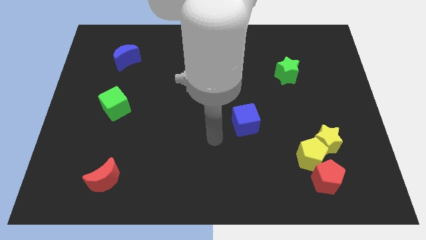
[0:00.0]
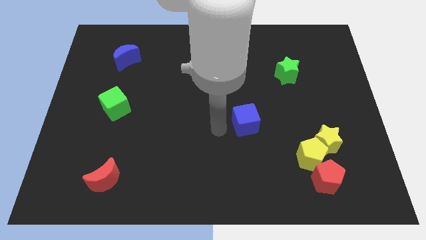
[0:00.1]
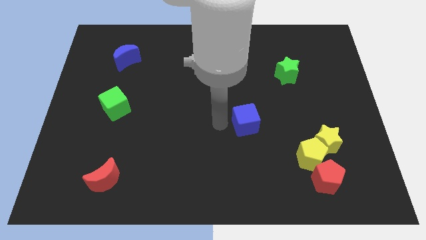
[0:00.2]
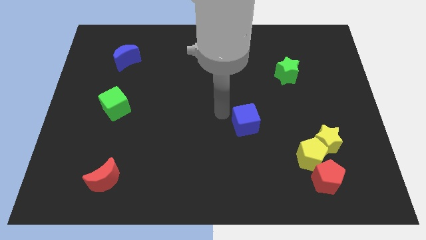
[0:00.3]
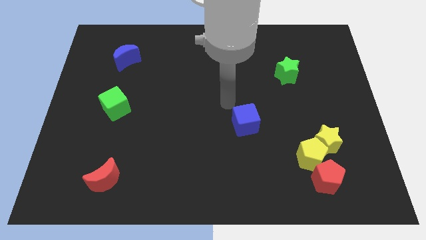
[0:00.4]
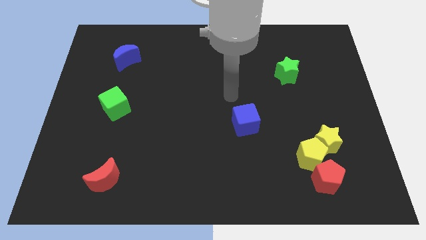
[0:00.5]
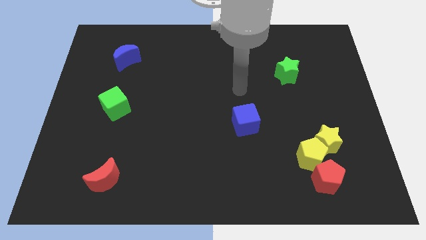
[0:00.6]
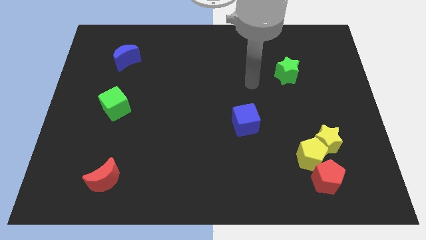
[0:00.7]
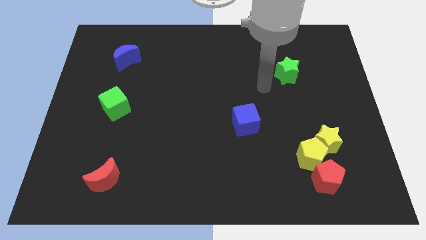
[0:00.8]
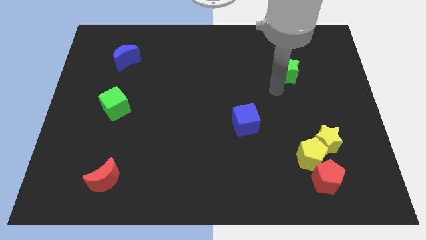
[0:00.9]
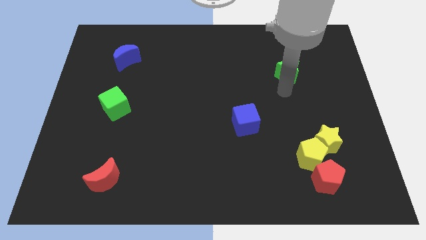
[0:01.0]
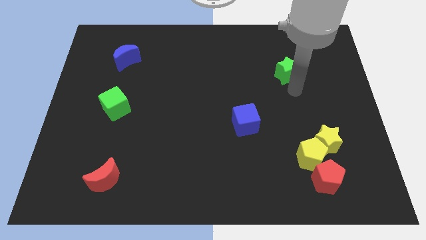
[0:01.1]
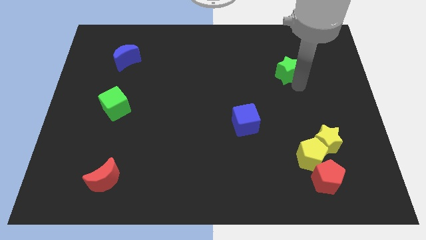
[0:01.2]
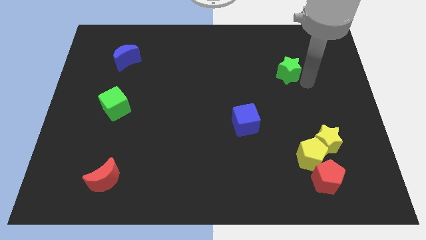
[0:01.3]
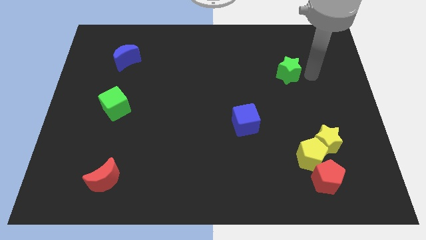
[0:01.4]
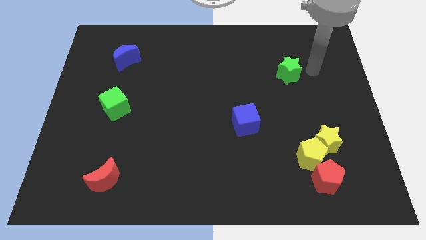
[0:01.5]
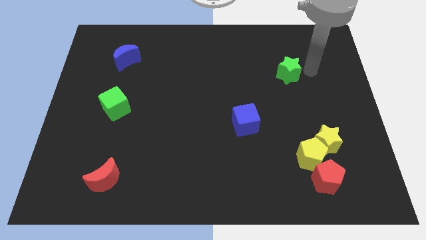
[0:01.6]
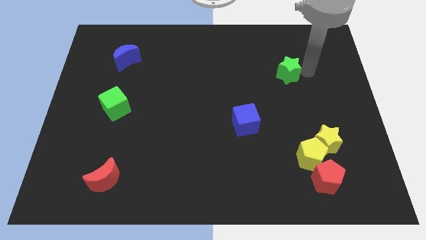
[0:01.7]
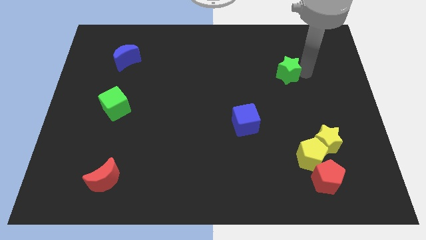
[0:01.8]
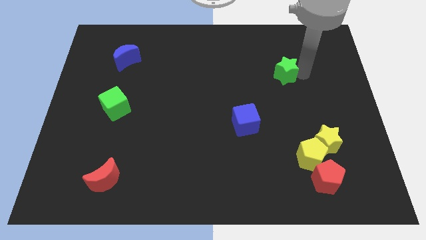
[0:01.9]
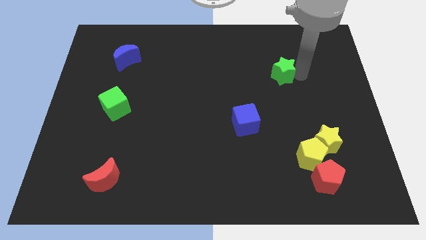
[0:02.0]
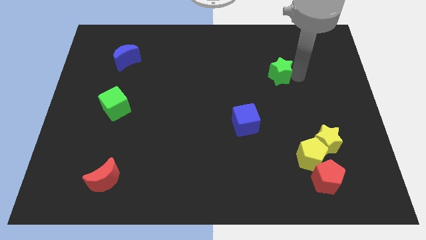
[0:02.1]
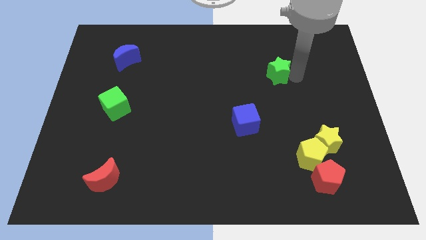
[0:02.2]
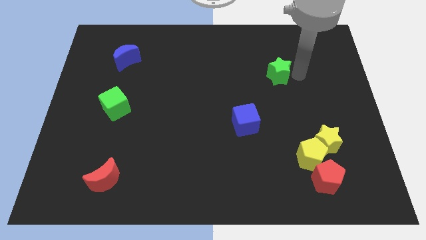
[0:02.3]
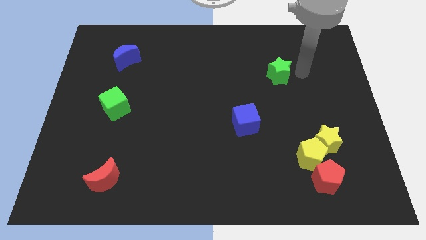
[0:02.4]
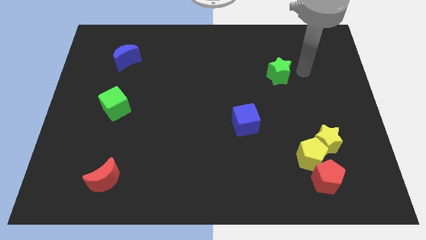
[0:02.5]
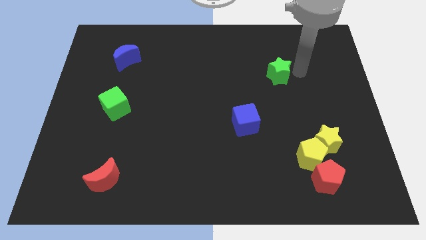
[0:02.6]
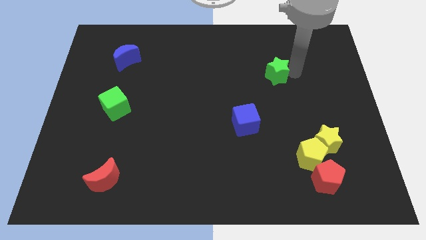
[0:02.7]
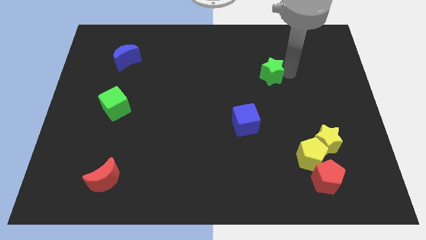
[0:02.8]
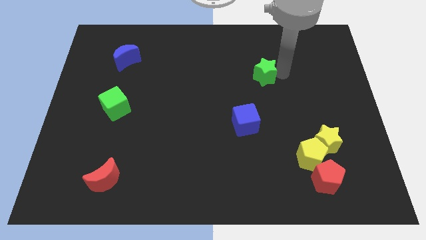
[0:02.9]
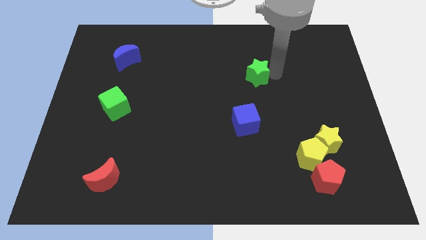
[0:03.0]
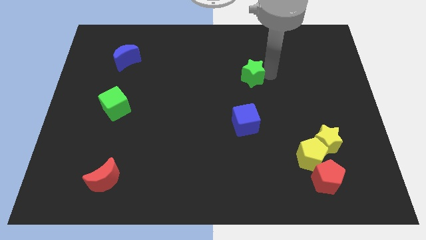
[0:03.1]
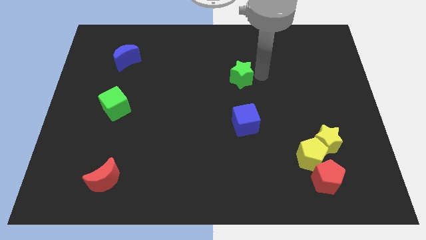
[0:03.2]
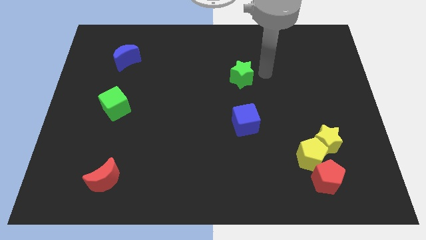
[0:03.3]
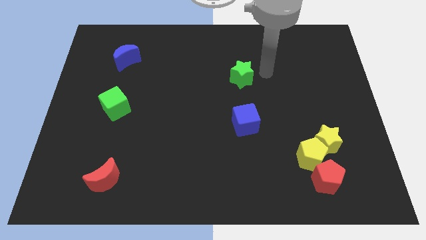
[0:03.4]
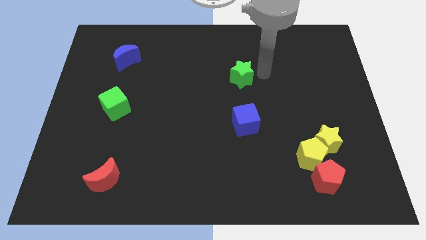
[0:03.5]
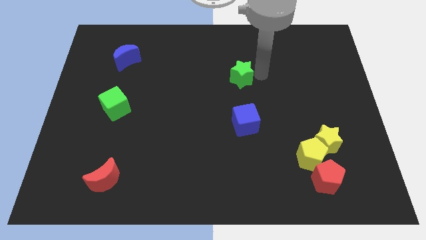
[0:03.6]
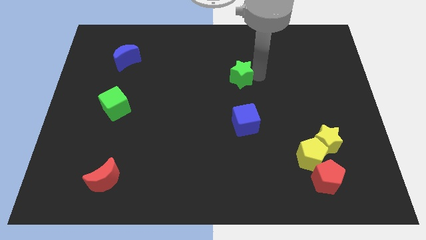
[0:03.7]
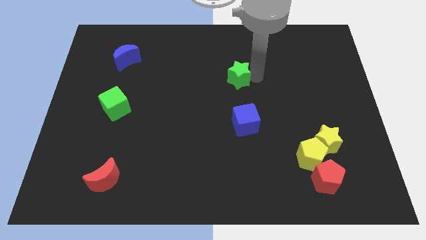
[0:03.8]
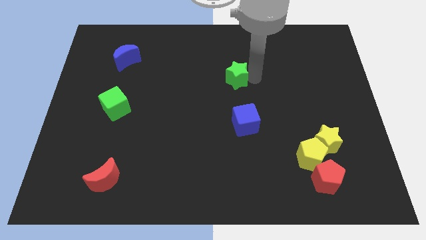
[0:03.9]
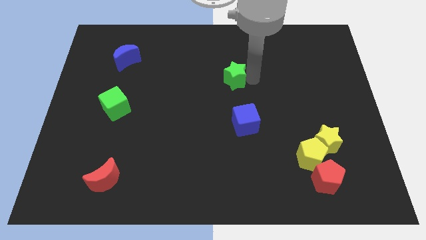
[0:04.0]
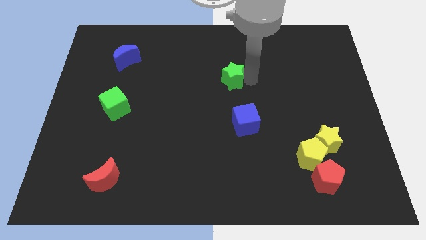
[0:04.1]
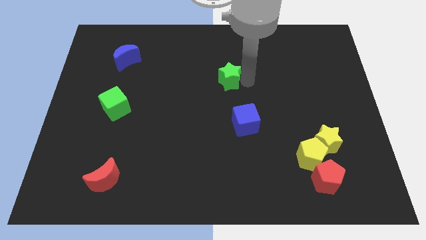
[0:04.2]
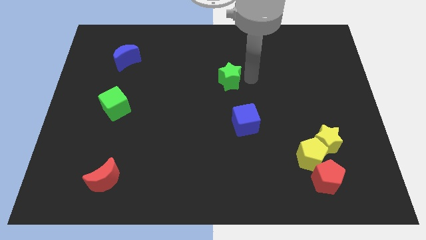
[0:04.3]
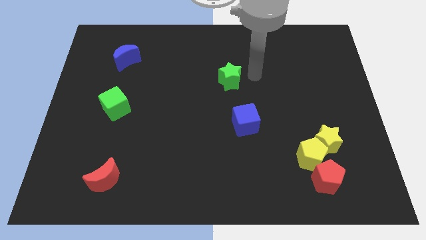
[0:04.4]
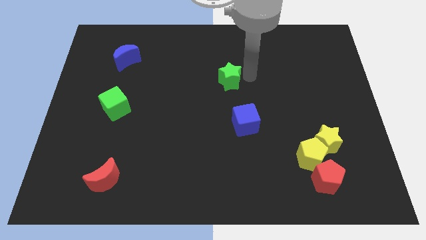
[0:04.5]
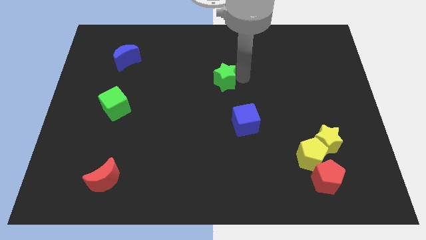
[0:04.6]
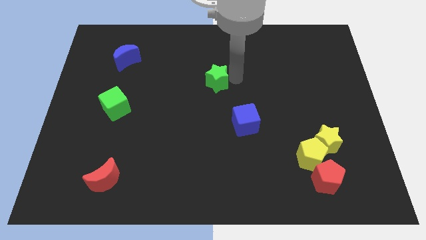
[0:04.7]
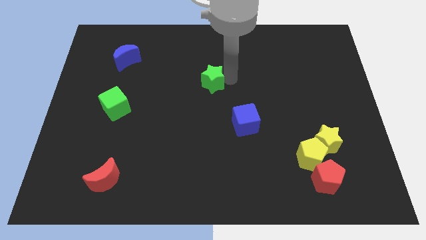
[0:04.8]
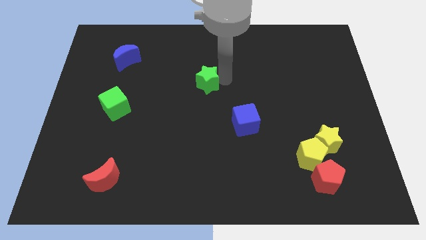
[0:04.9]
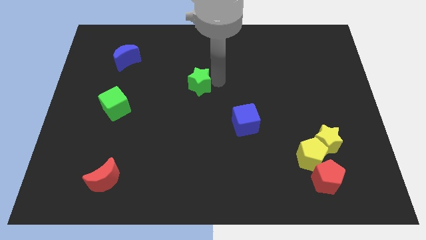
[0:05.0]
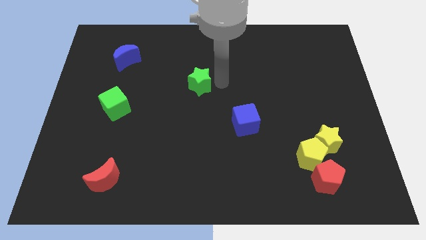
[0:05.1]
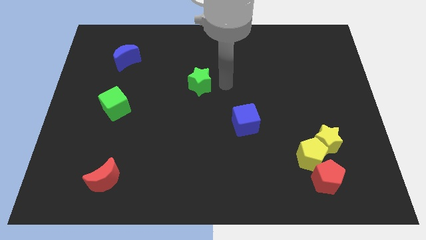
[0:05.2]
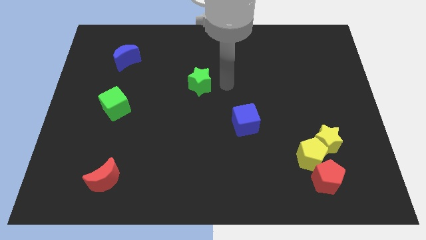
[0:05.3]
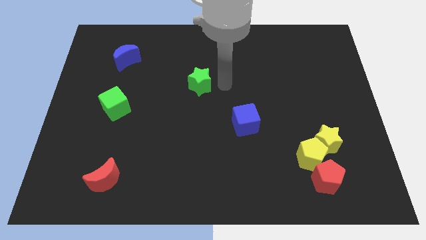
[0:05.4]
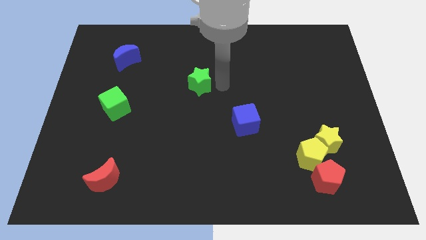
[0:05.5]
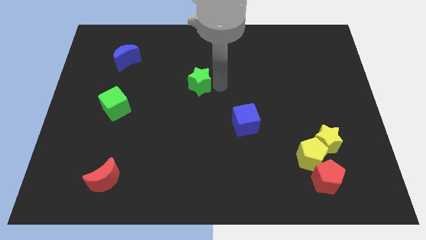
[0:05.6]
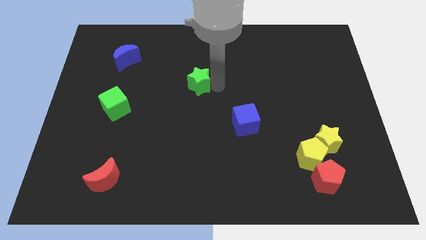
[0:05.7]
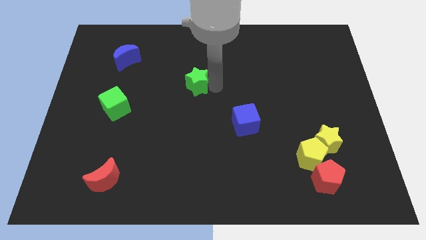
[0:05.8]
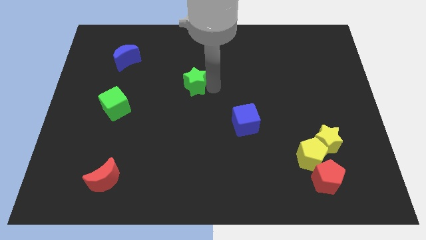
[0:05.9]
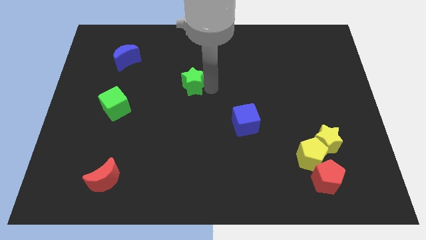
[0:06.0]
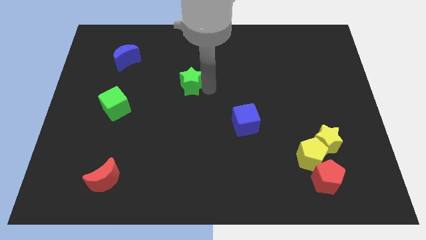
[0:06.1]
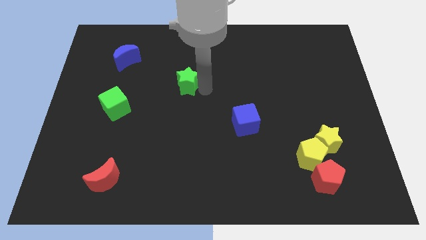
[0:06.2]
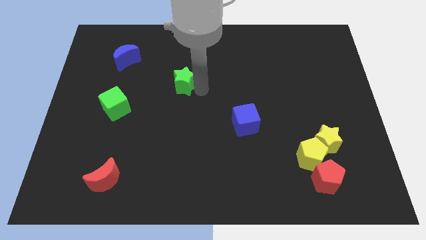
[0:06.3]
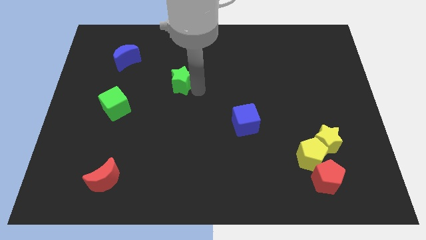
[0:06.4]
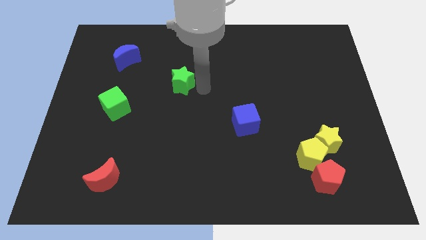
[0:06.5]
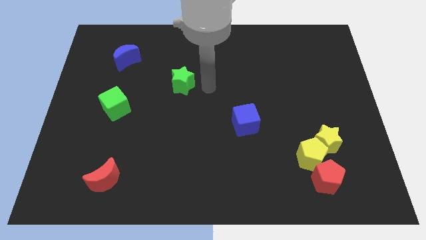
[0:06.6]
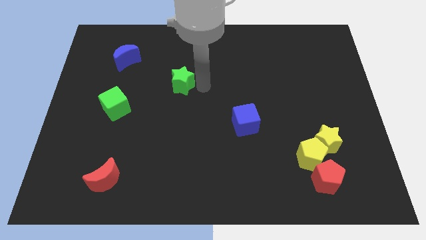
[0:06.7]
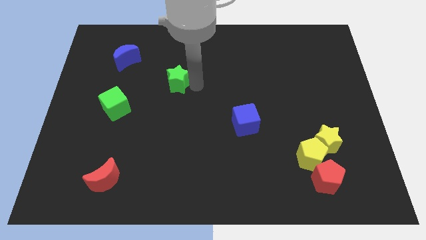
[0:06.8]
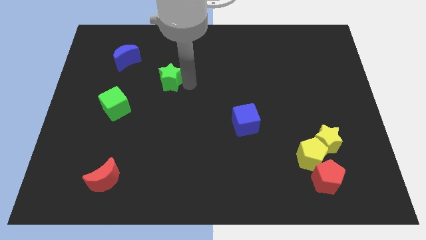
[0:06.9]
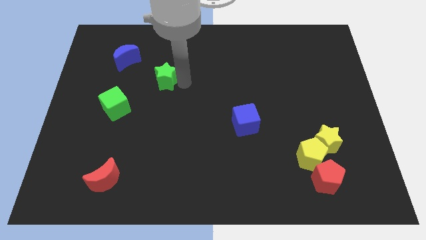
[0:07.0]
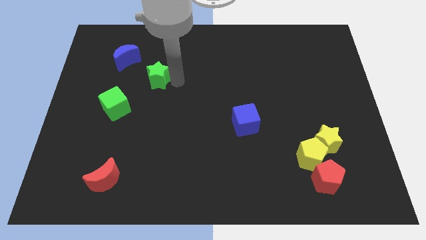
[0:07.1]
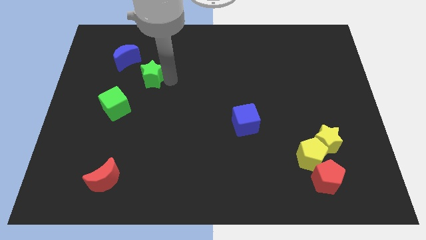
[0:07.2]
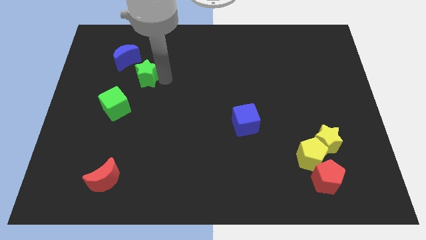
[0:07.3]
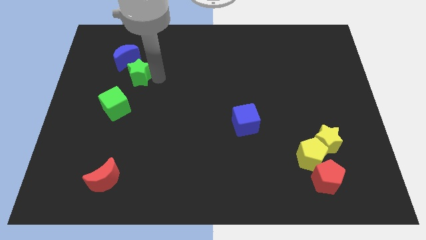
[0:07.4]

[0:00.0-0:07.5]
push the green star to the top side of the green cube
